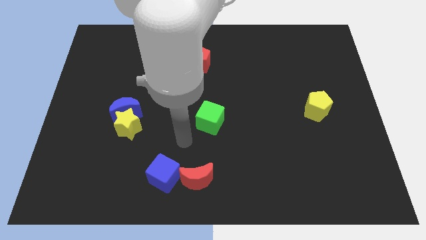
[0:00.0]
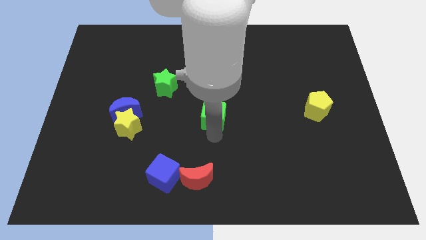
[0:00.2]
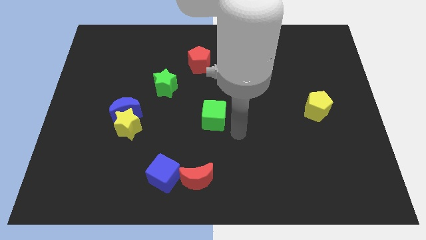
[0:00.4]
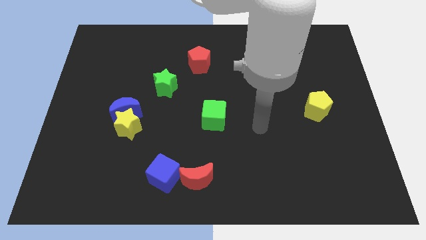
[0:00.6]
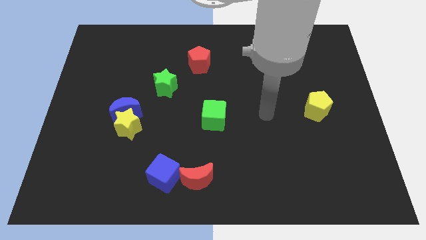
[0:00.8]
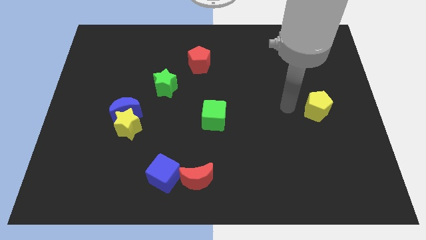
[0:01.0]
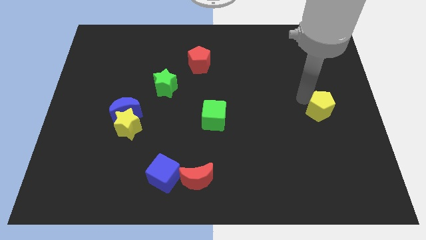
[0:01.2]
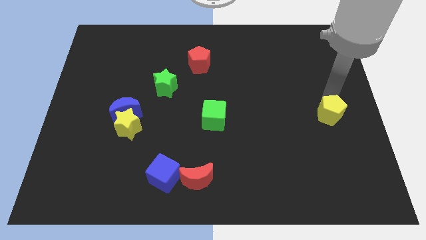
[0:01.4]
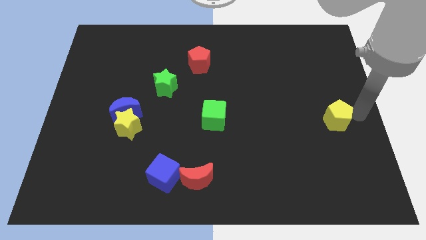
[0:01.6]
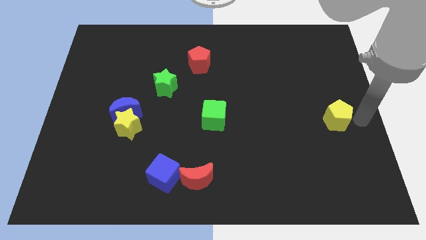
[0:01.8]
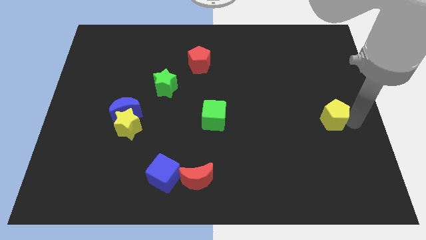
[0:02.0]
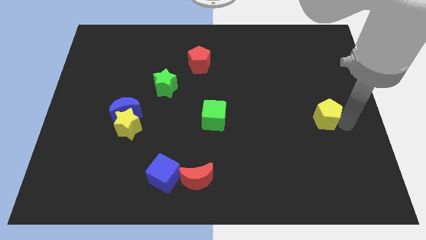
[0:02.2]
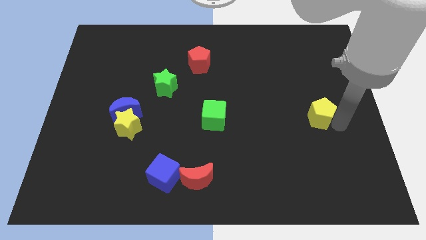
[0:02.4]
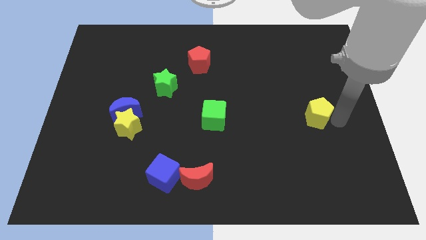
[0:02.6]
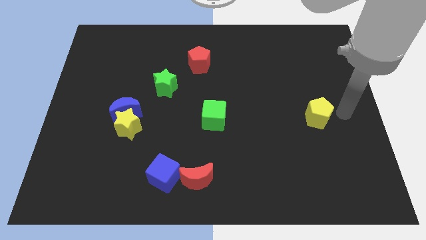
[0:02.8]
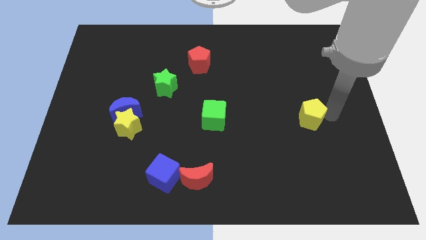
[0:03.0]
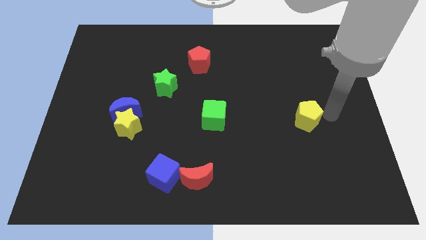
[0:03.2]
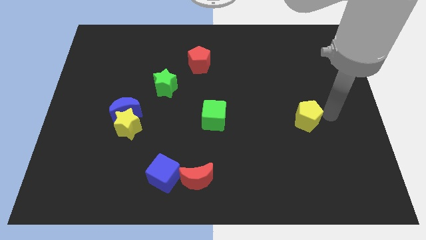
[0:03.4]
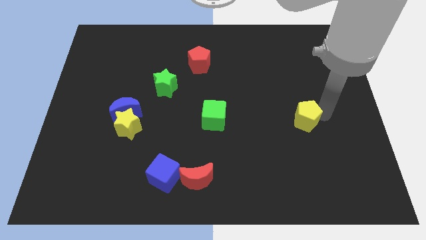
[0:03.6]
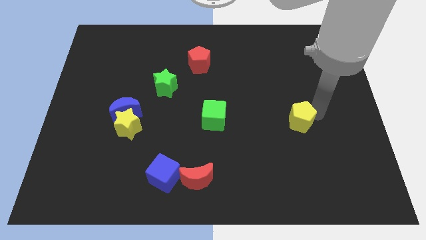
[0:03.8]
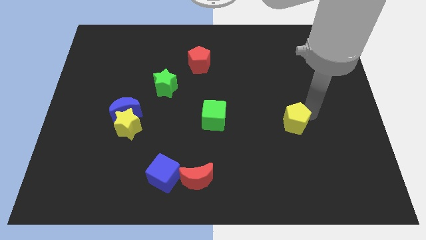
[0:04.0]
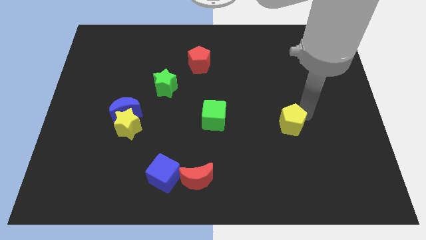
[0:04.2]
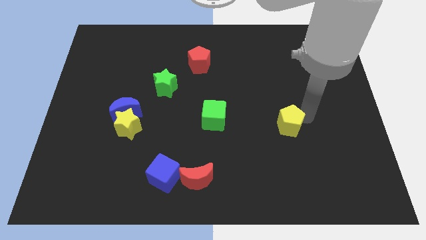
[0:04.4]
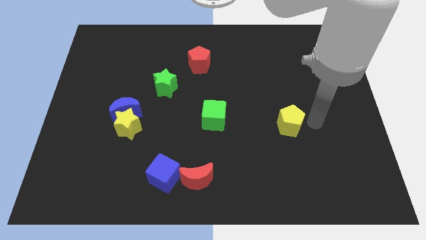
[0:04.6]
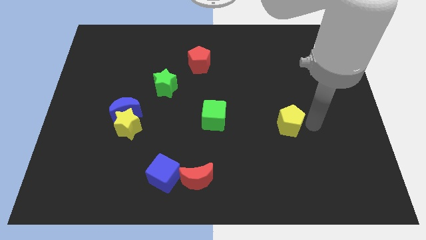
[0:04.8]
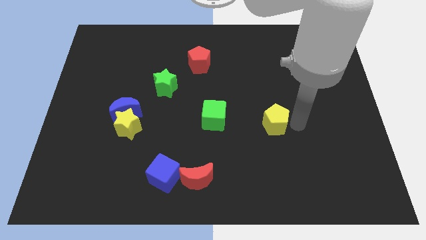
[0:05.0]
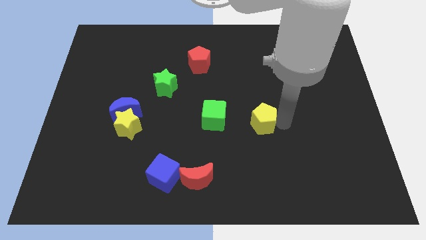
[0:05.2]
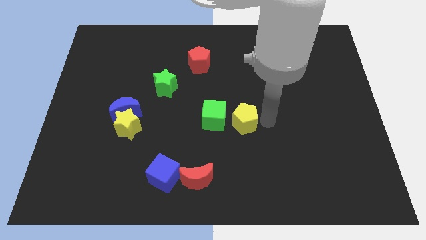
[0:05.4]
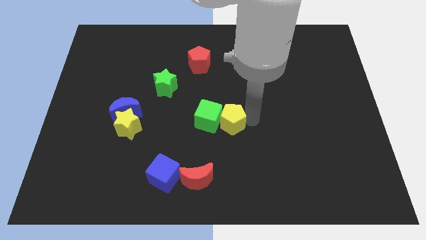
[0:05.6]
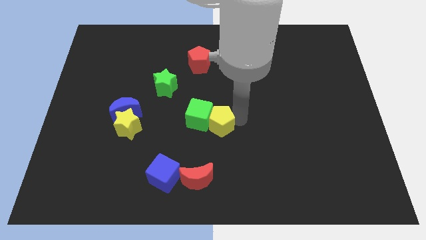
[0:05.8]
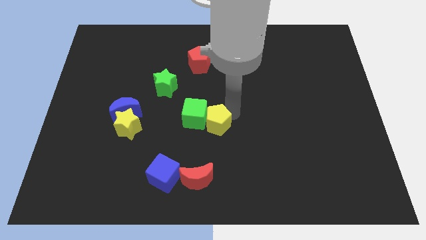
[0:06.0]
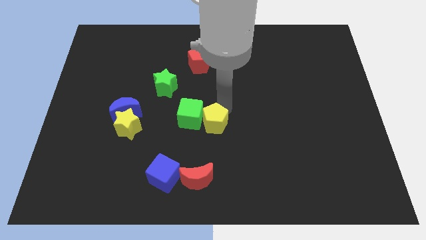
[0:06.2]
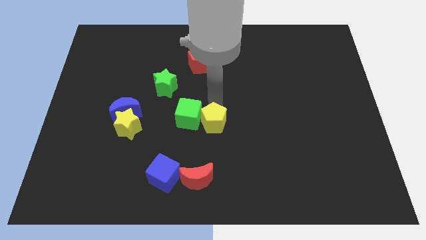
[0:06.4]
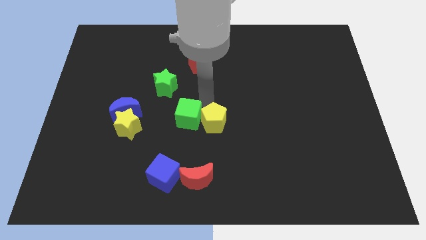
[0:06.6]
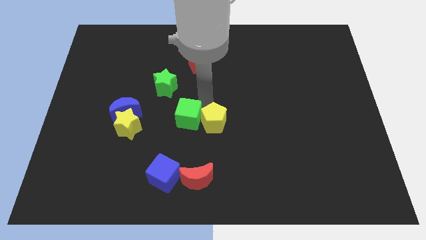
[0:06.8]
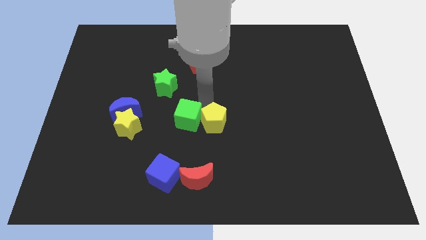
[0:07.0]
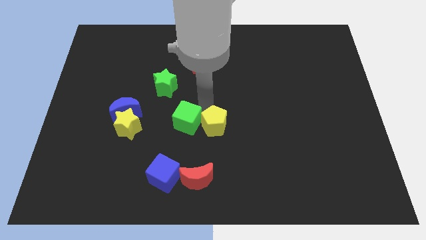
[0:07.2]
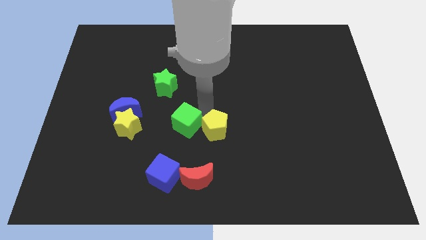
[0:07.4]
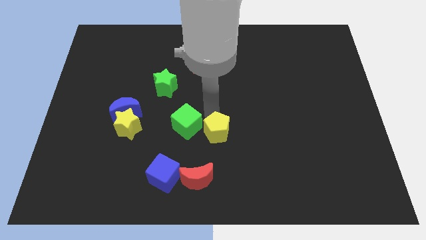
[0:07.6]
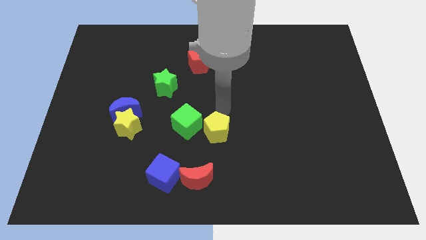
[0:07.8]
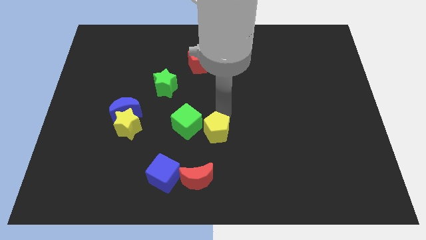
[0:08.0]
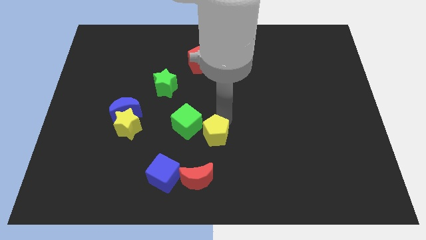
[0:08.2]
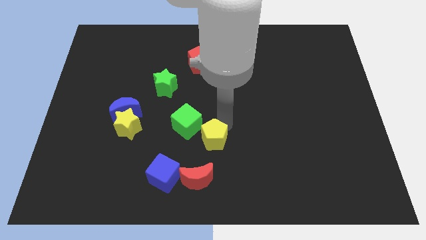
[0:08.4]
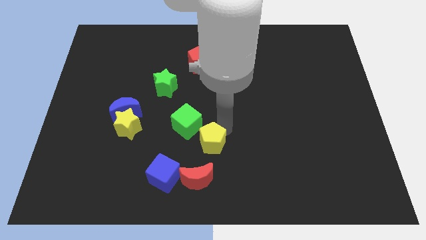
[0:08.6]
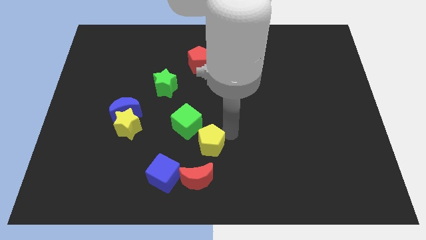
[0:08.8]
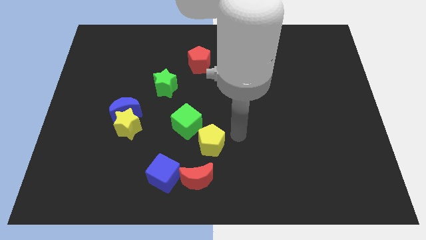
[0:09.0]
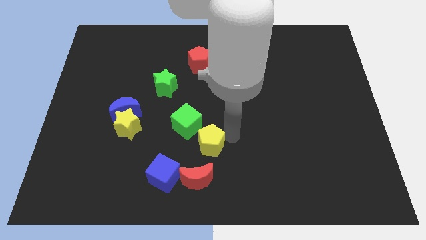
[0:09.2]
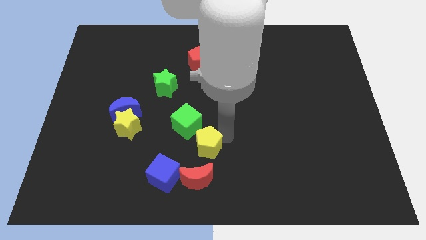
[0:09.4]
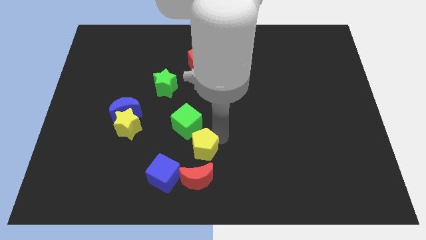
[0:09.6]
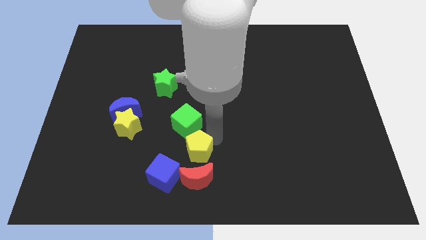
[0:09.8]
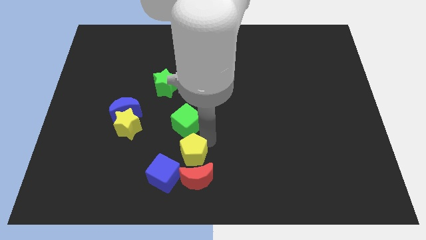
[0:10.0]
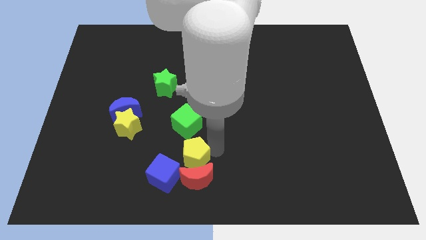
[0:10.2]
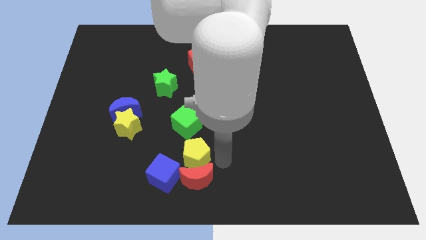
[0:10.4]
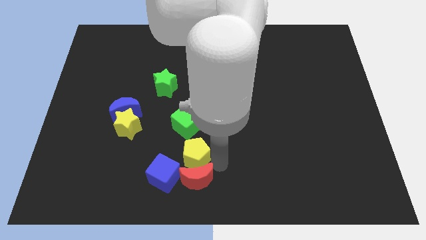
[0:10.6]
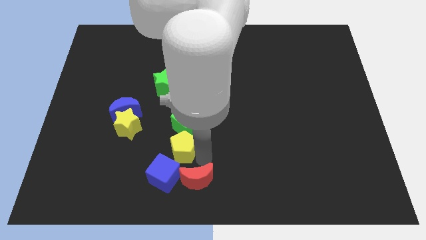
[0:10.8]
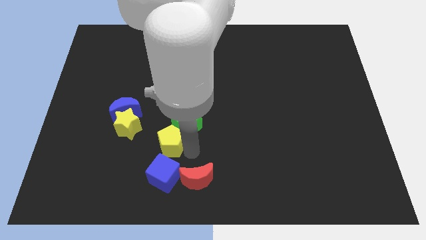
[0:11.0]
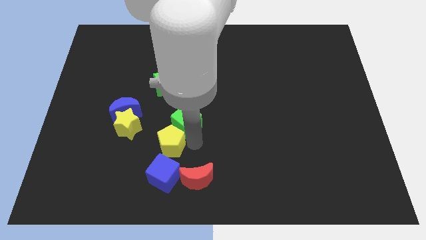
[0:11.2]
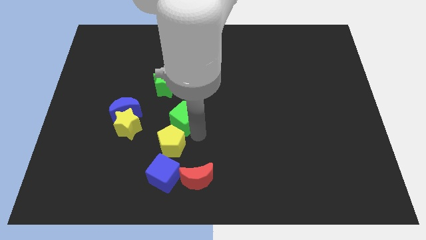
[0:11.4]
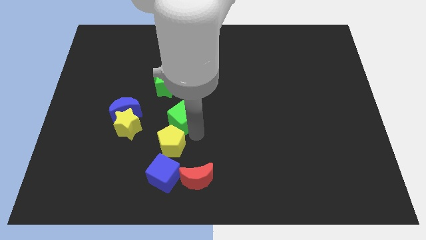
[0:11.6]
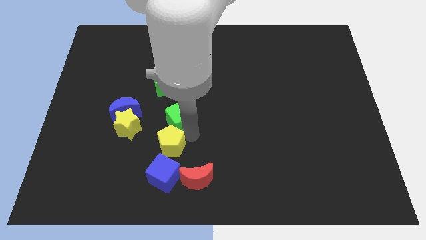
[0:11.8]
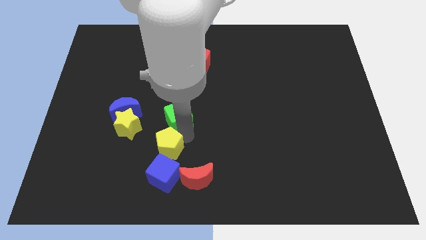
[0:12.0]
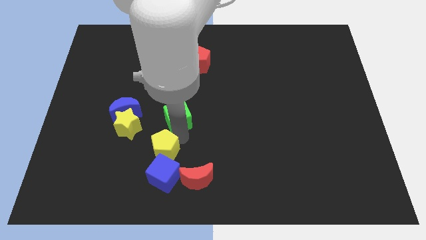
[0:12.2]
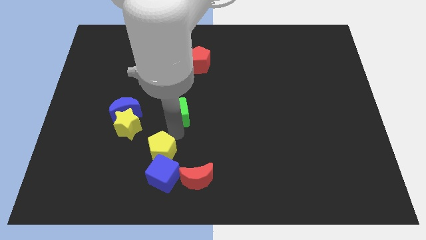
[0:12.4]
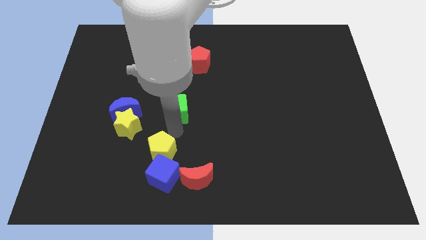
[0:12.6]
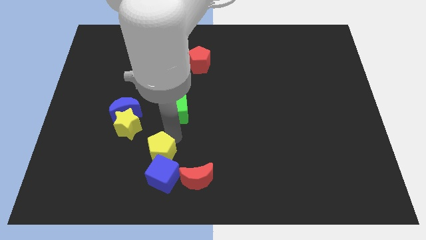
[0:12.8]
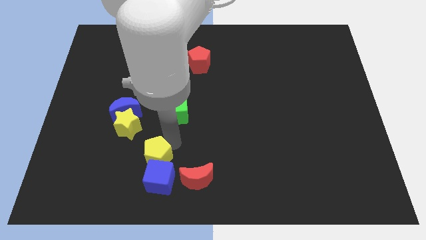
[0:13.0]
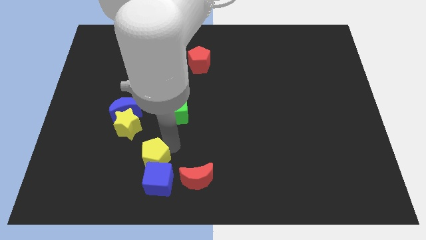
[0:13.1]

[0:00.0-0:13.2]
put the yellow pentagon to the left side of the red moon
